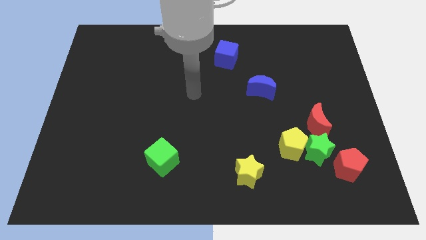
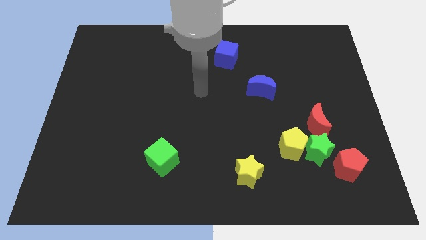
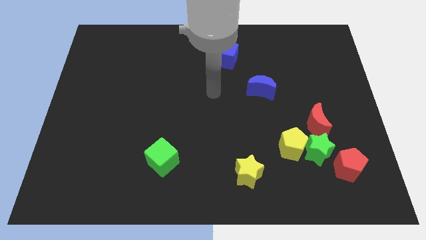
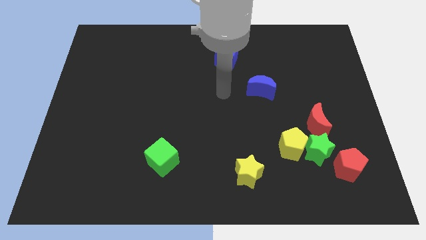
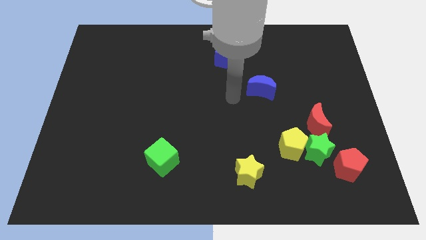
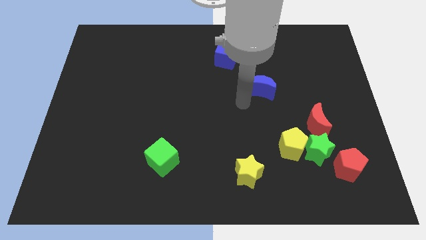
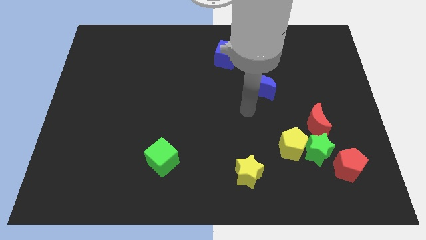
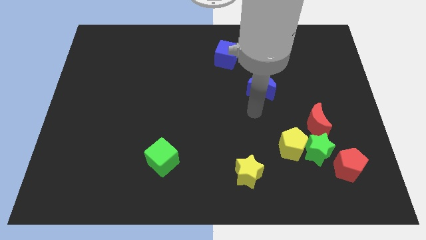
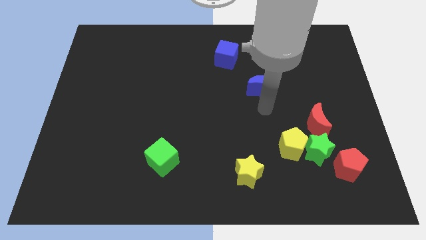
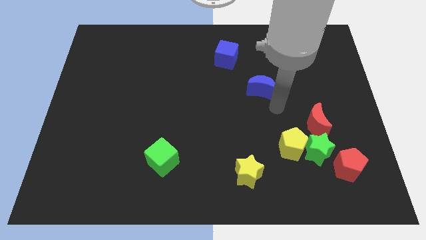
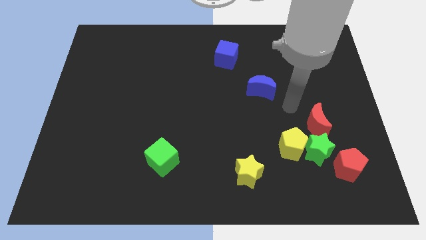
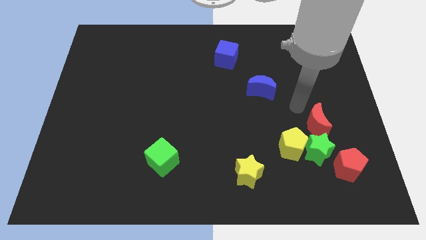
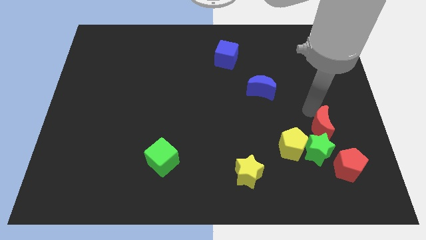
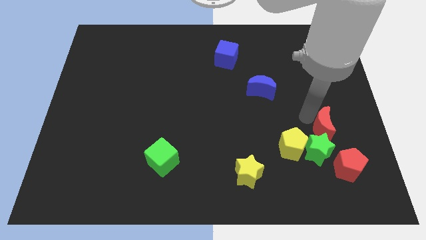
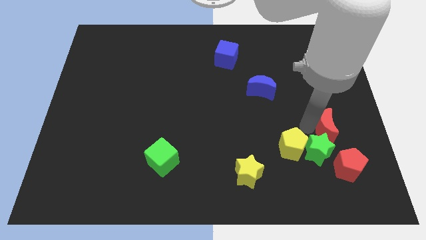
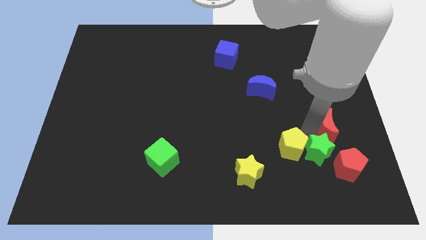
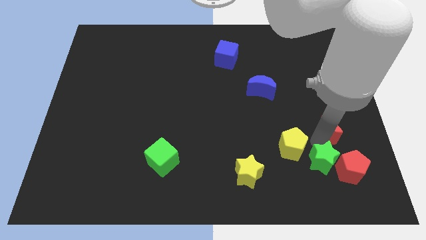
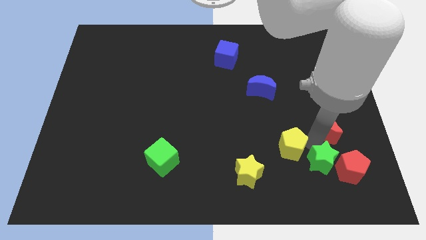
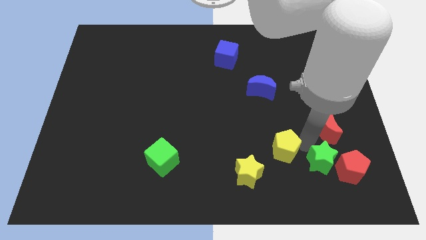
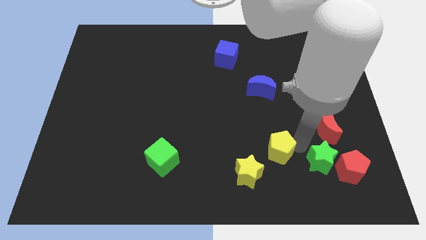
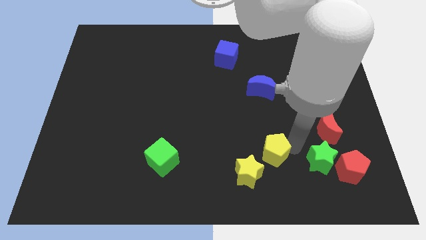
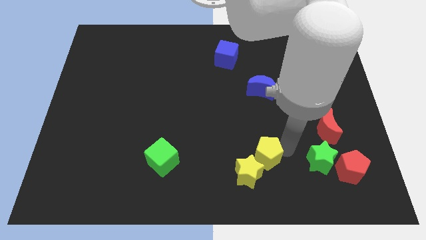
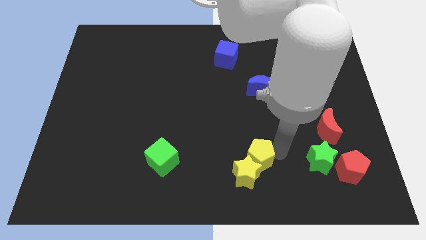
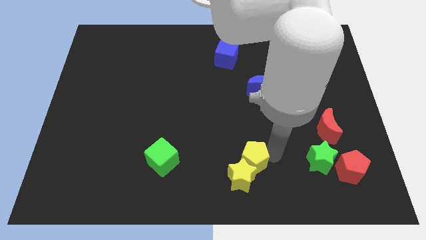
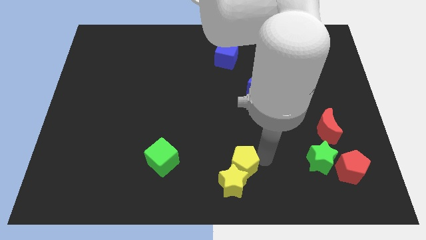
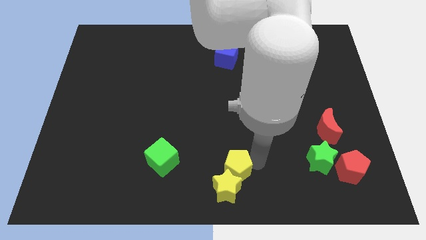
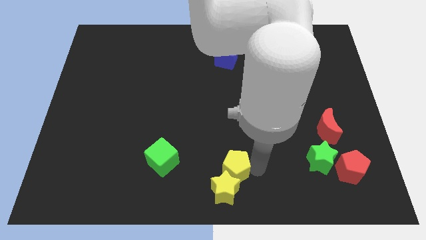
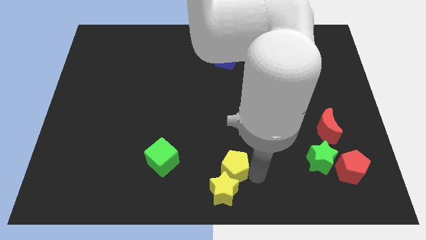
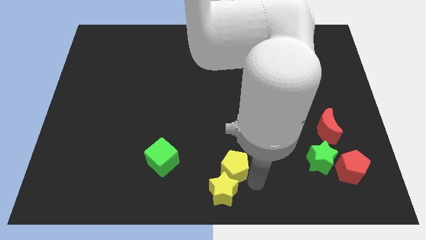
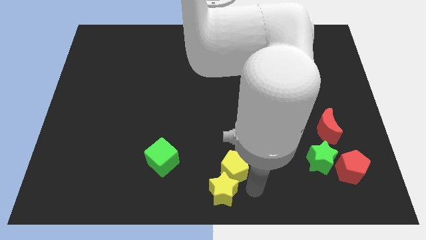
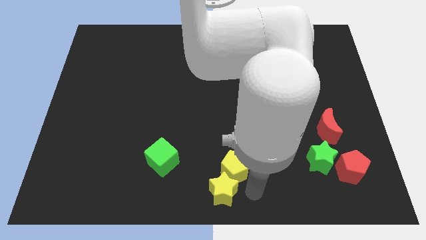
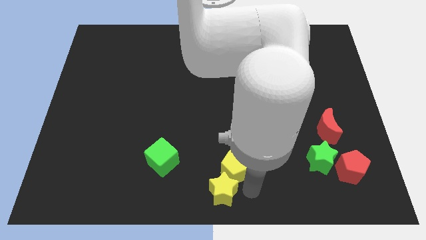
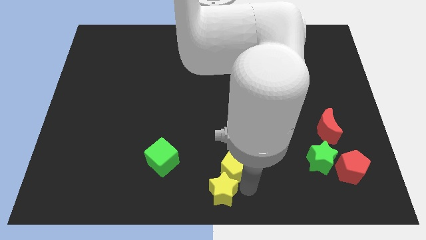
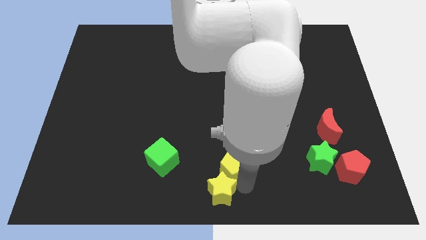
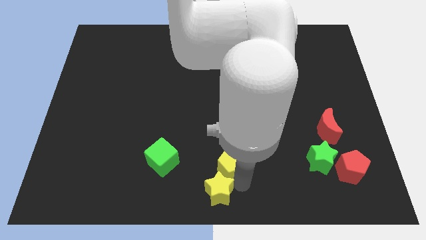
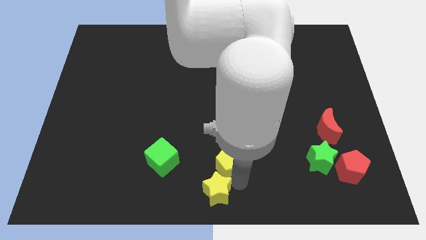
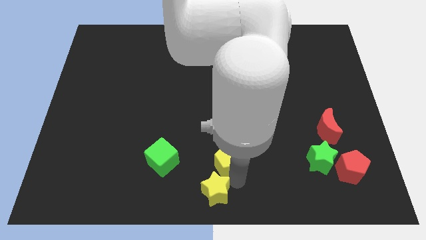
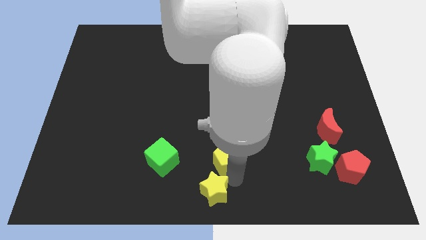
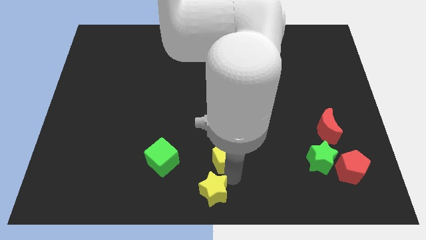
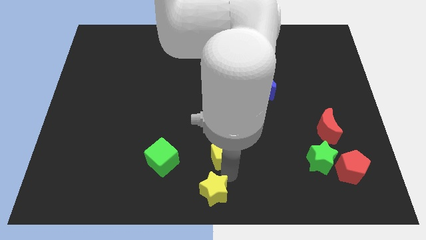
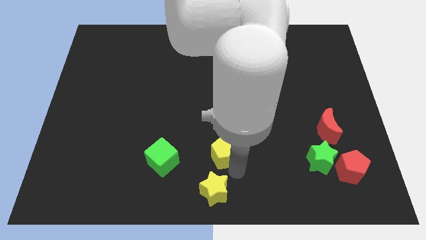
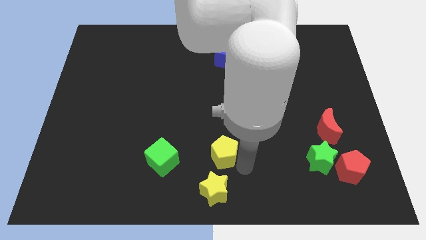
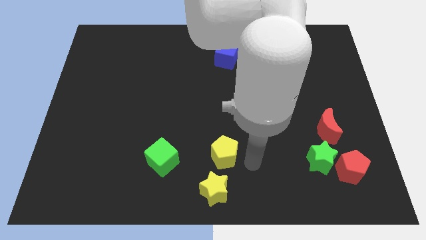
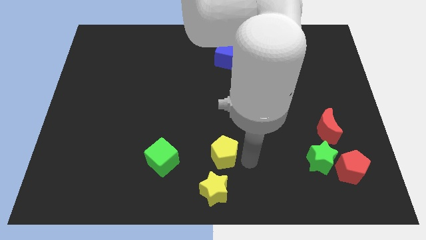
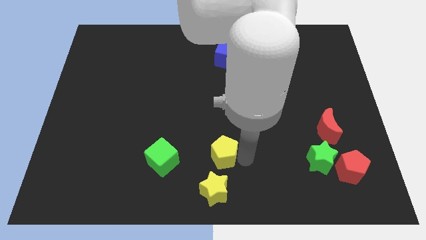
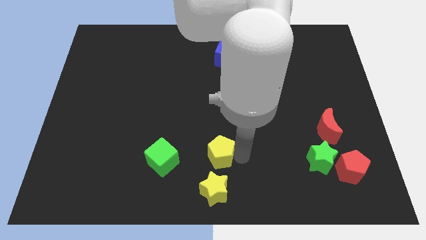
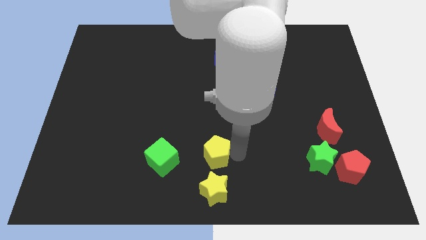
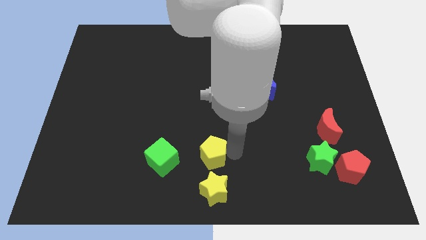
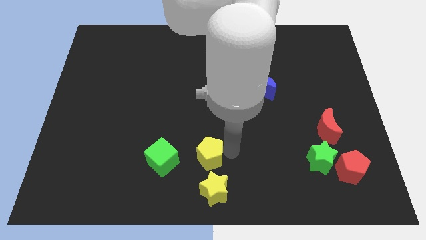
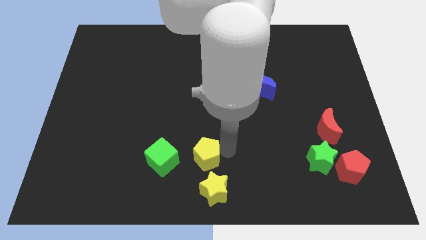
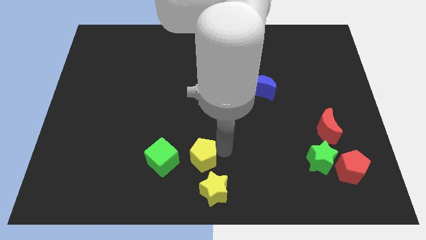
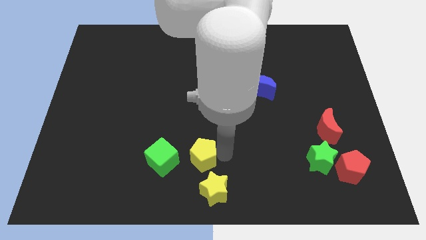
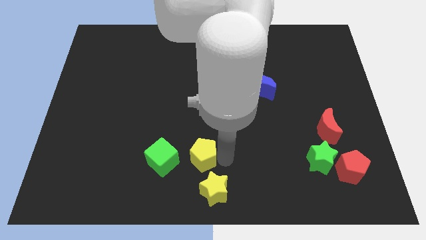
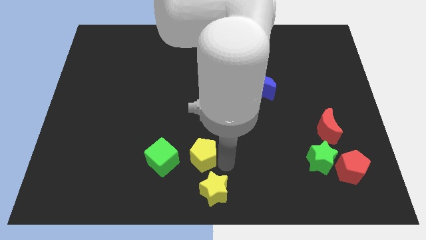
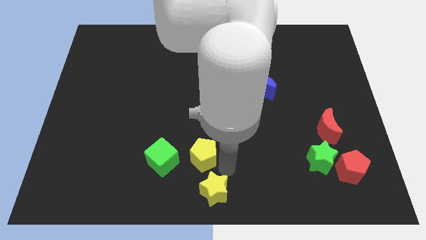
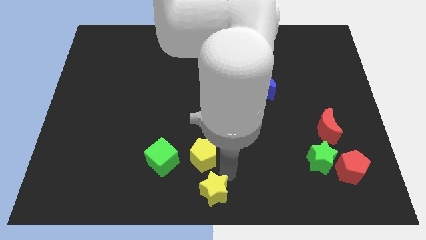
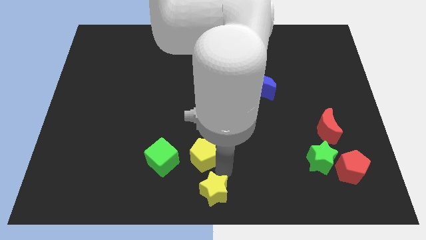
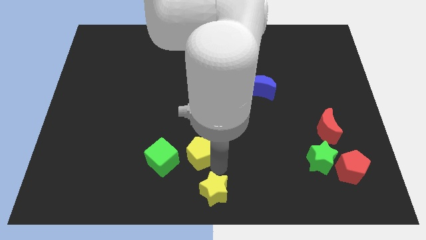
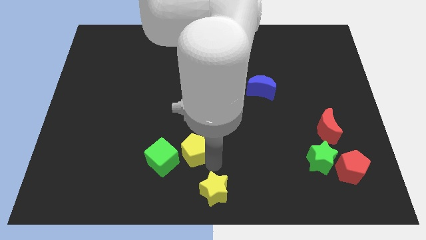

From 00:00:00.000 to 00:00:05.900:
slide the yellow pentagon left

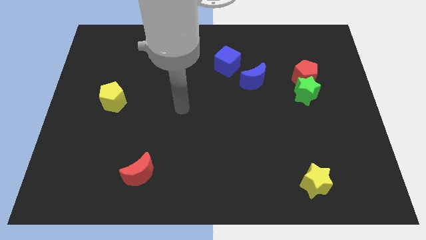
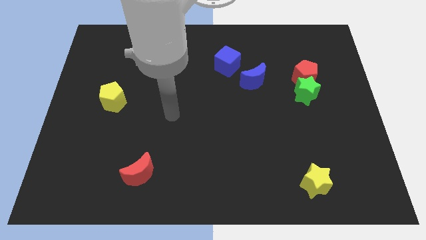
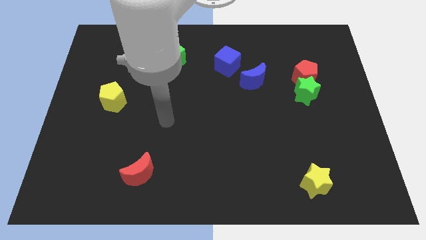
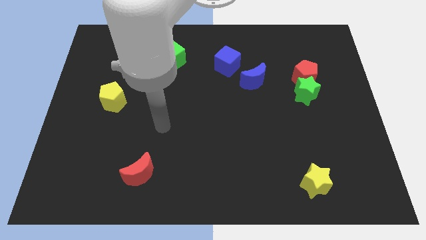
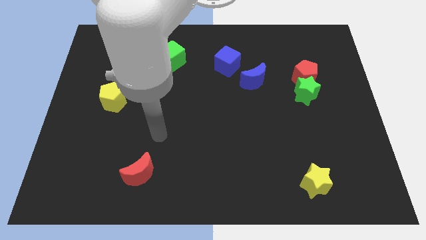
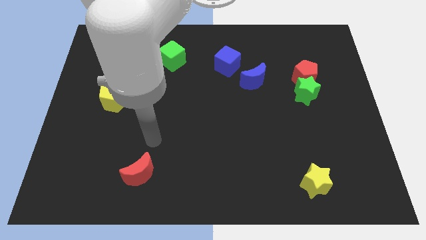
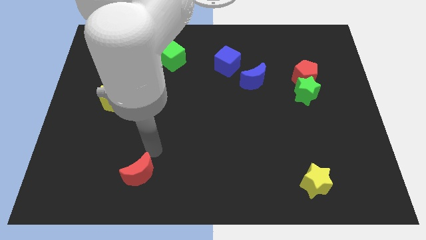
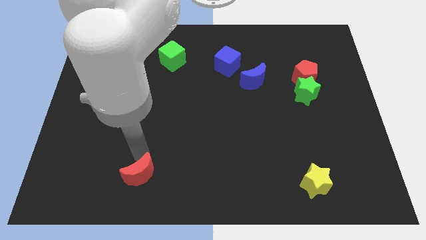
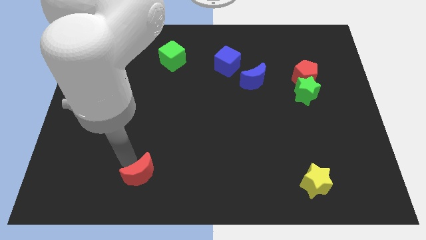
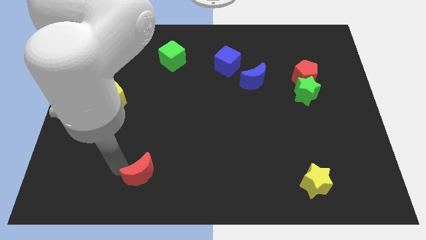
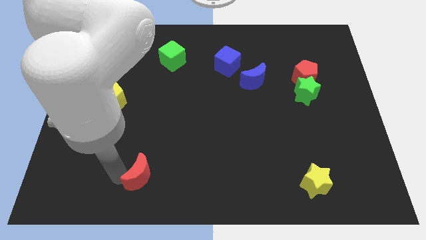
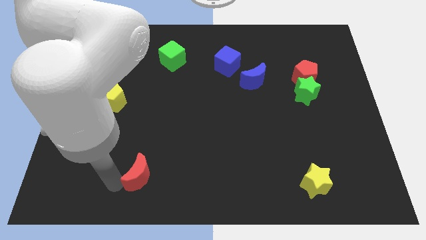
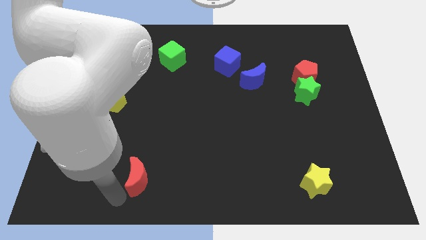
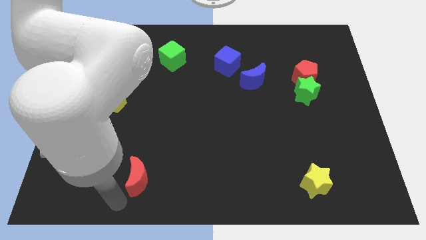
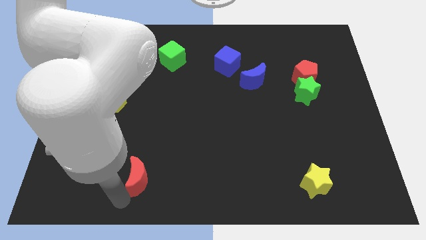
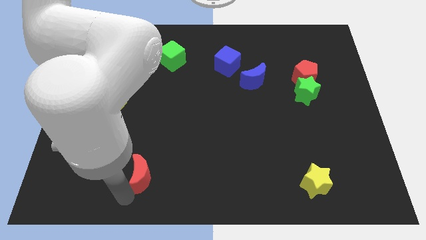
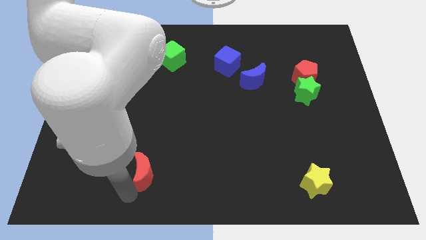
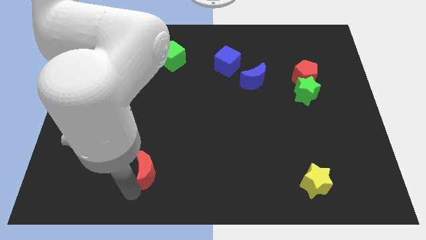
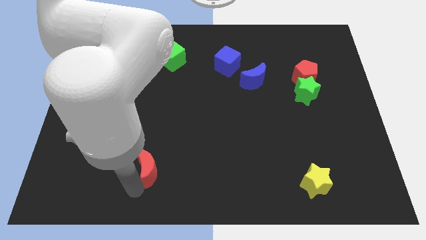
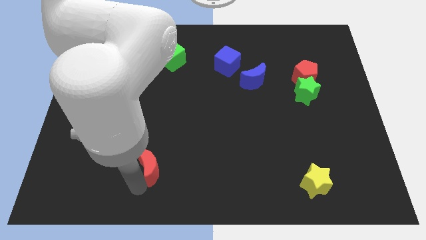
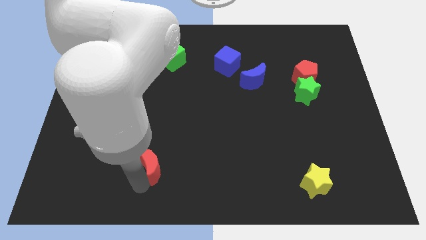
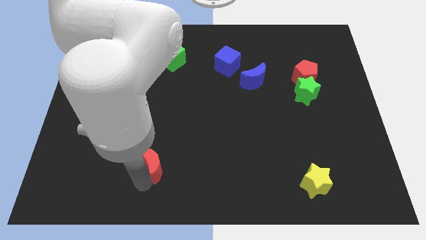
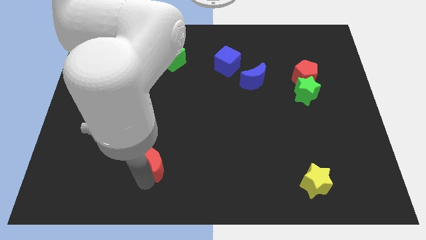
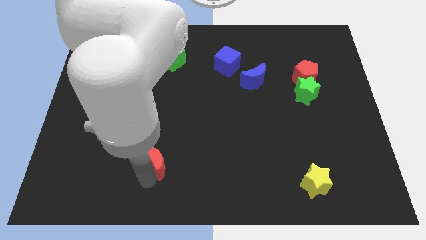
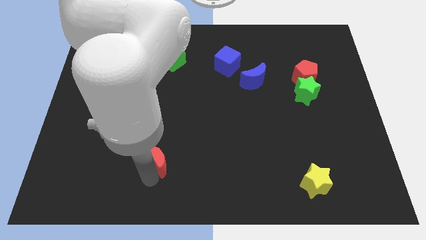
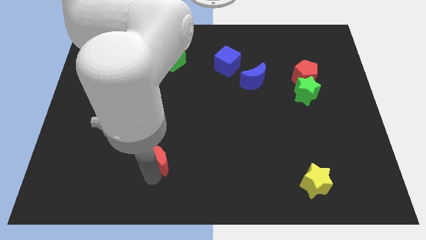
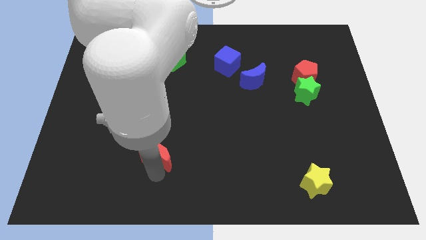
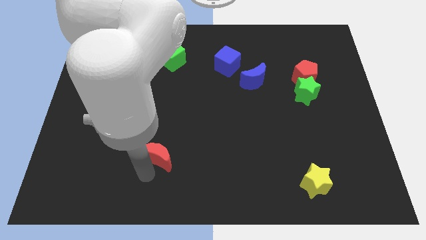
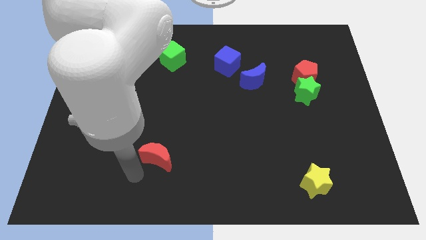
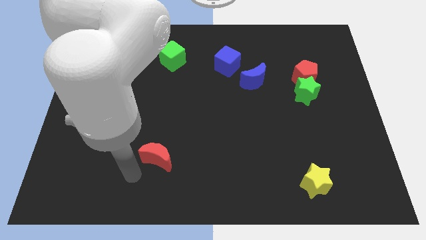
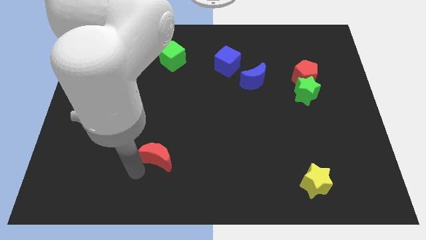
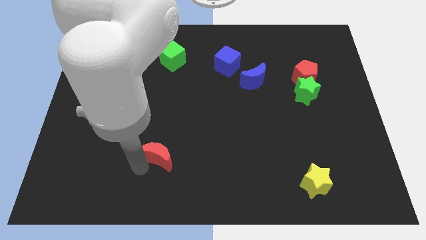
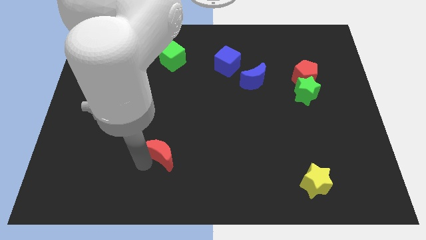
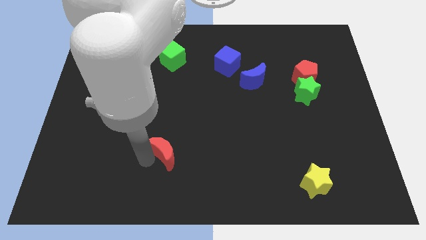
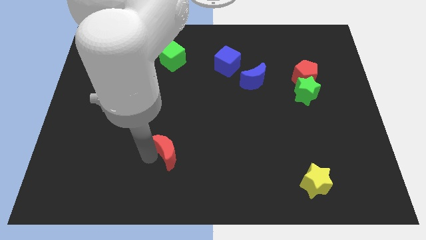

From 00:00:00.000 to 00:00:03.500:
push the red moon somewhat diagonally up and right
